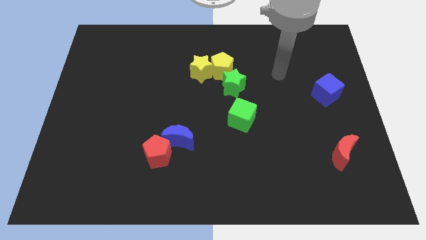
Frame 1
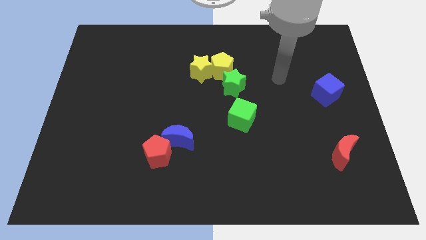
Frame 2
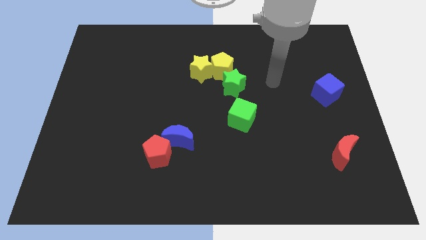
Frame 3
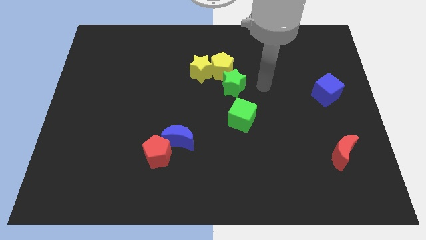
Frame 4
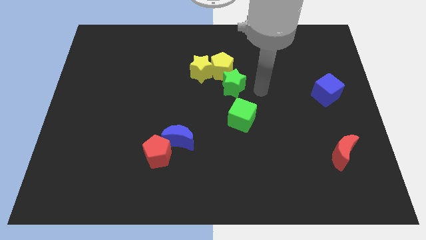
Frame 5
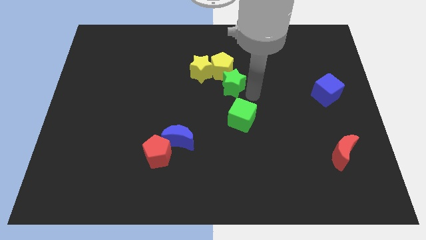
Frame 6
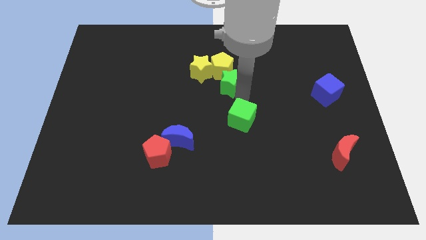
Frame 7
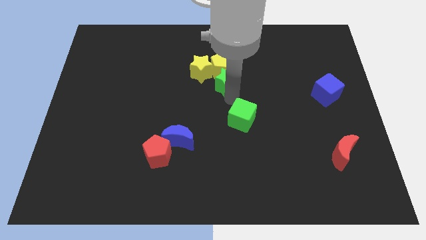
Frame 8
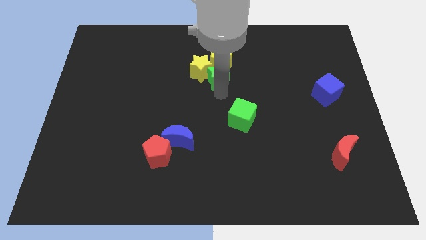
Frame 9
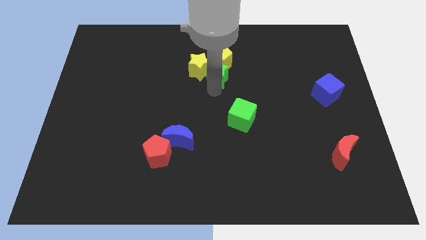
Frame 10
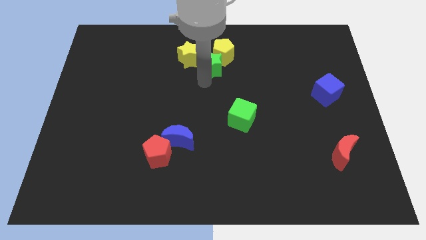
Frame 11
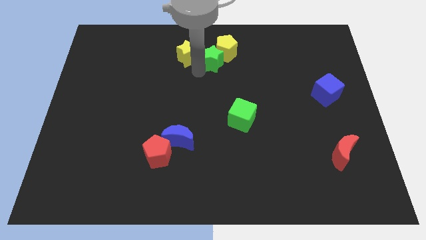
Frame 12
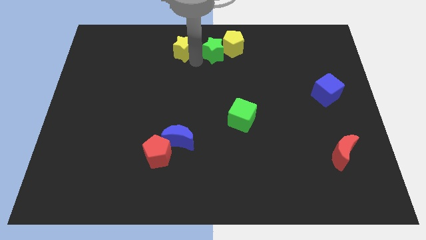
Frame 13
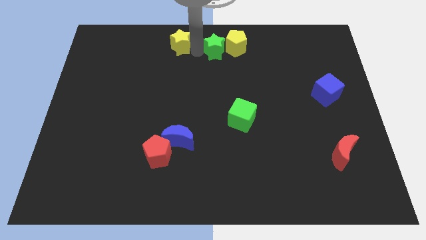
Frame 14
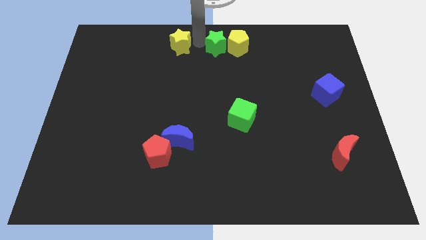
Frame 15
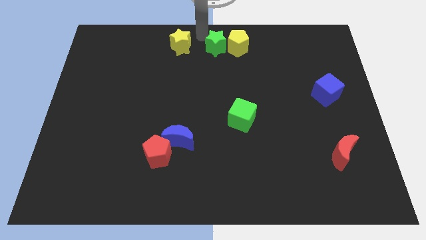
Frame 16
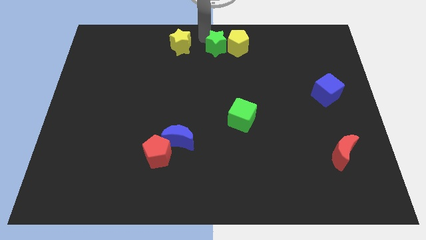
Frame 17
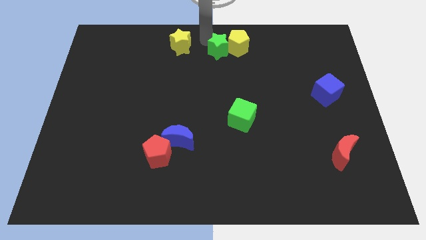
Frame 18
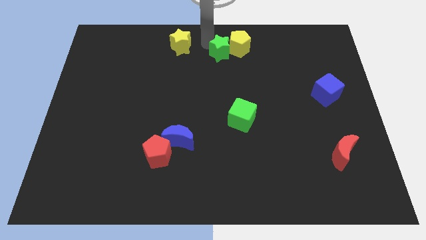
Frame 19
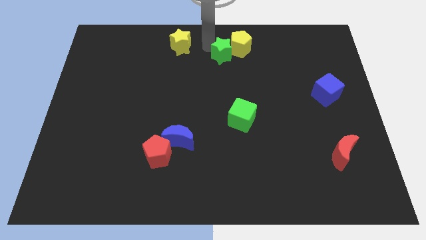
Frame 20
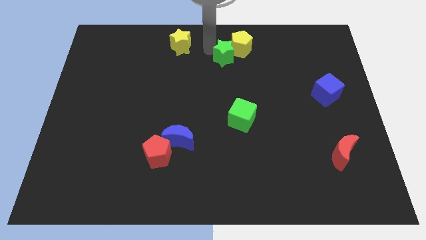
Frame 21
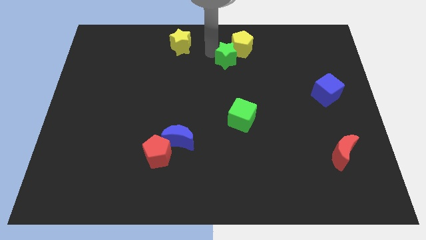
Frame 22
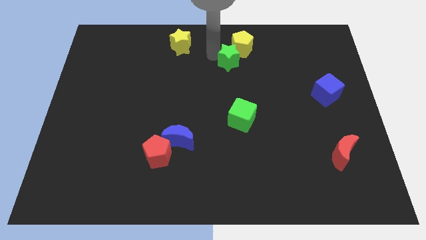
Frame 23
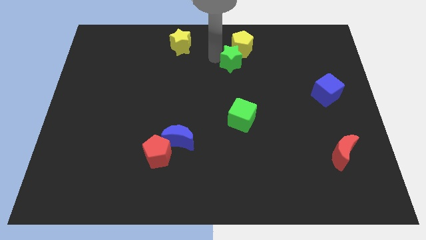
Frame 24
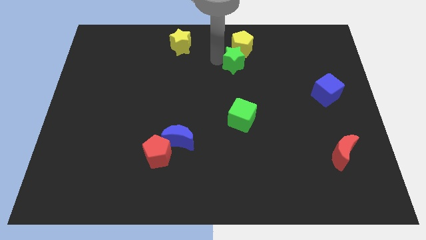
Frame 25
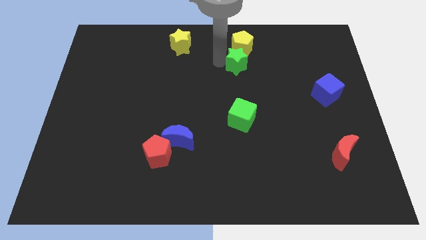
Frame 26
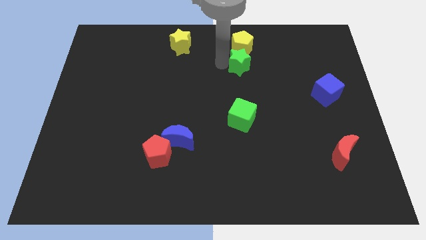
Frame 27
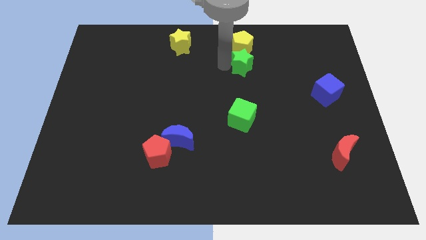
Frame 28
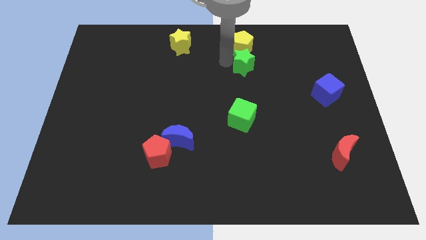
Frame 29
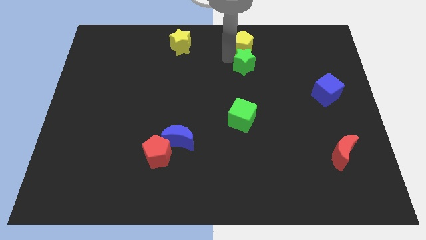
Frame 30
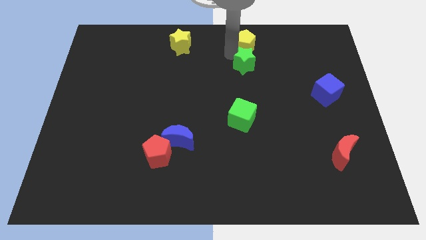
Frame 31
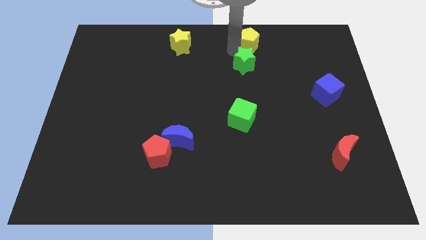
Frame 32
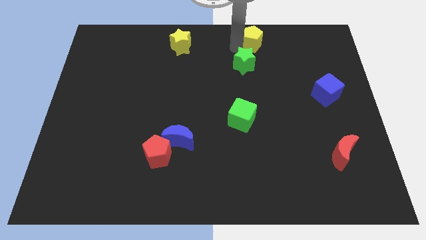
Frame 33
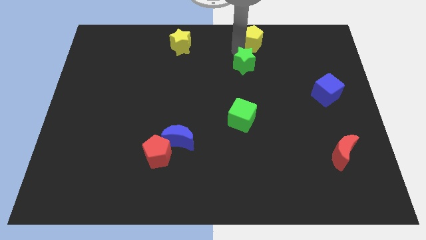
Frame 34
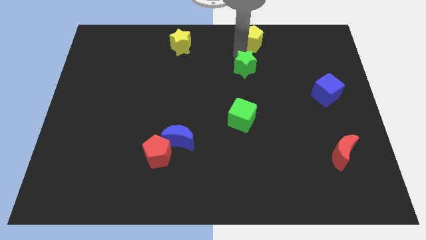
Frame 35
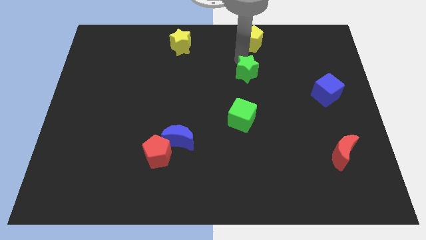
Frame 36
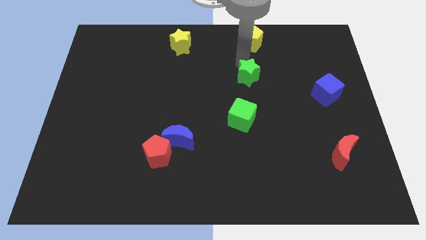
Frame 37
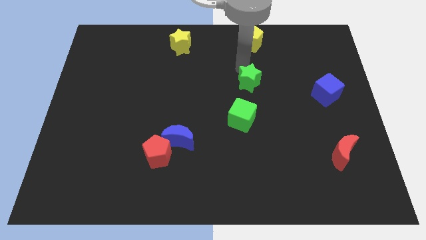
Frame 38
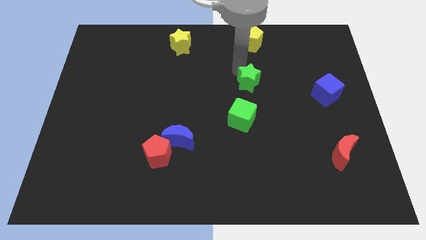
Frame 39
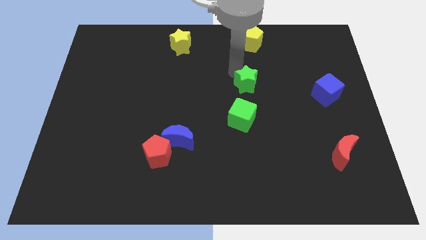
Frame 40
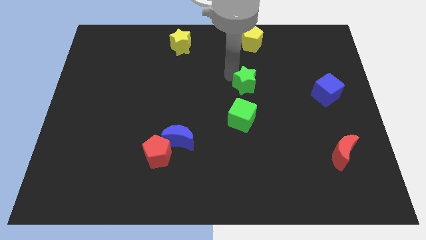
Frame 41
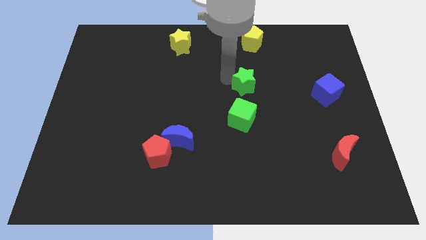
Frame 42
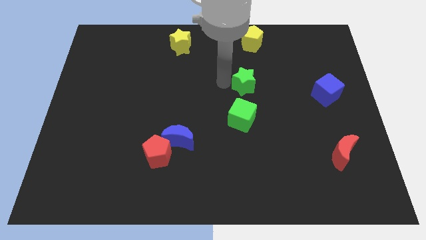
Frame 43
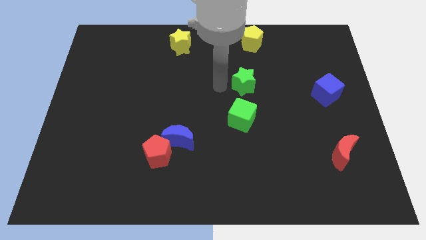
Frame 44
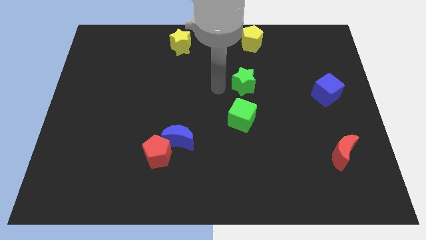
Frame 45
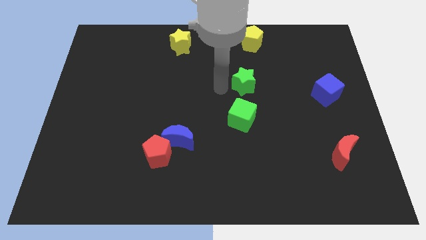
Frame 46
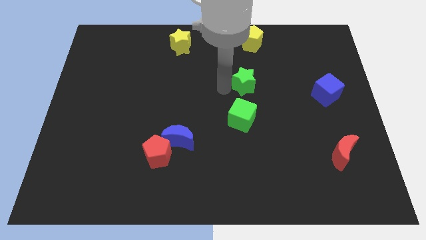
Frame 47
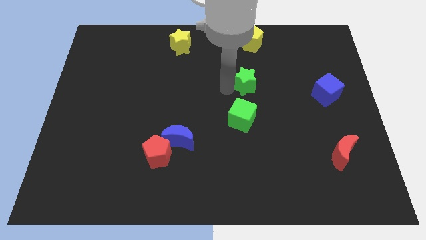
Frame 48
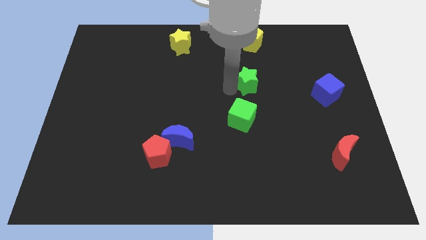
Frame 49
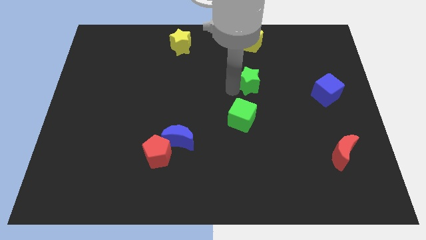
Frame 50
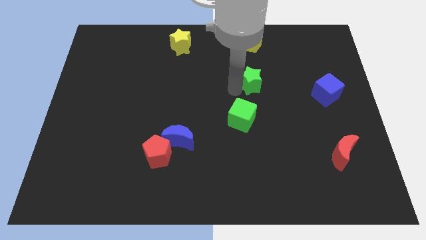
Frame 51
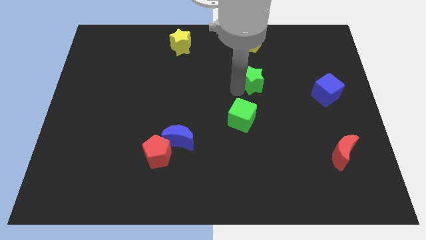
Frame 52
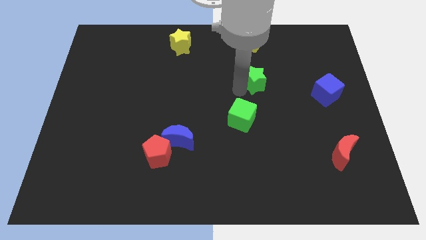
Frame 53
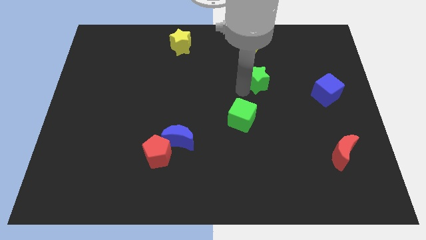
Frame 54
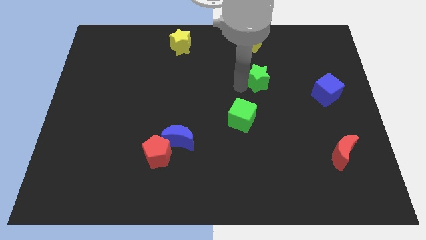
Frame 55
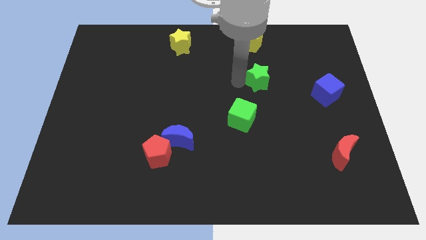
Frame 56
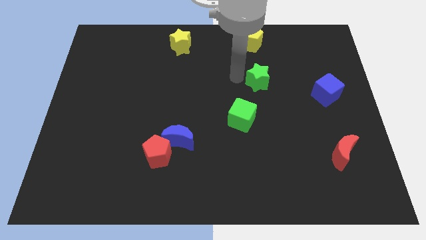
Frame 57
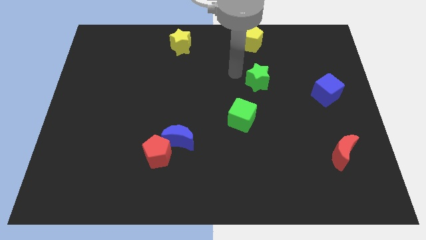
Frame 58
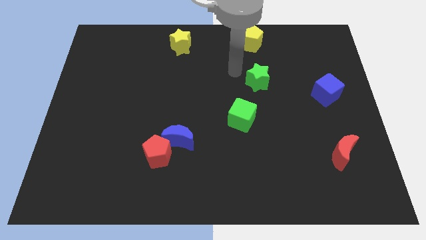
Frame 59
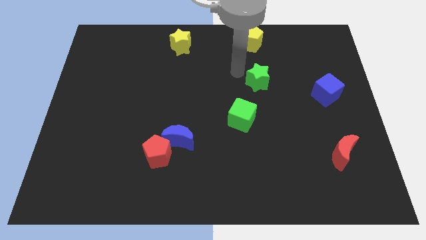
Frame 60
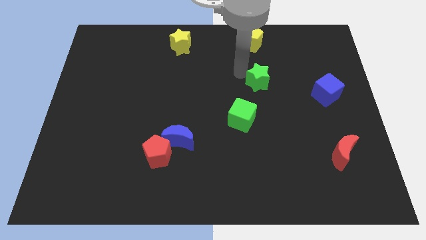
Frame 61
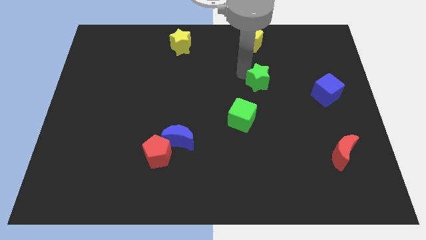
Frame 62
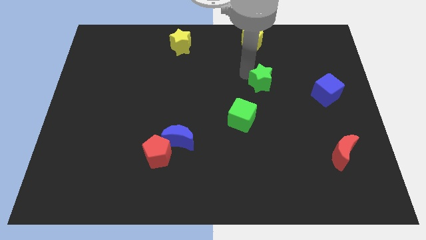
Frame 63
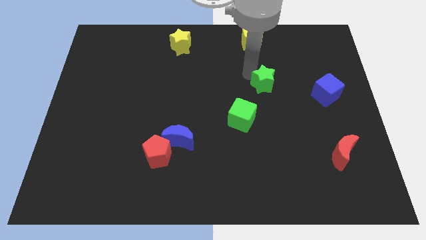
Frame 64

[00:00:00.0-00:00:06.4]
put the green star just left of the blue cube
